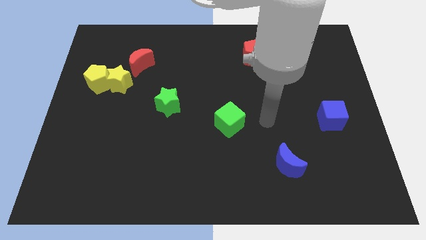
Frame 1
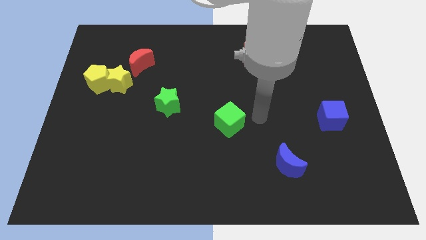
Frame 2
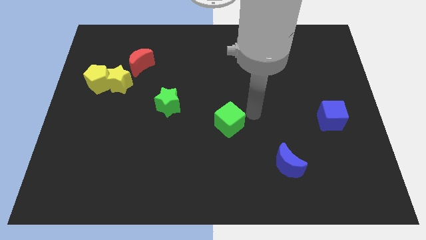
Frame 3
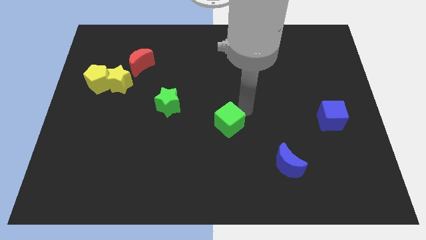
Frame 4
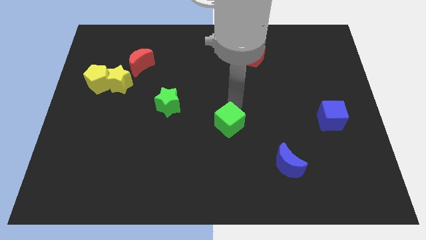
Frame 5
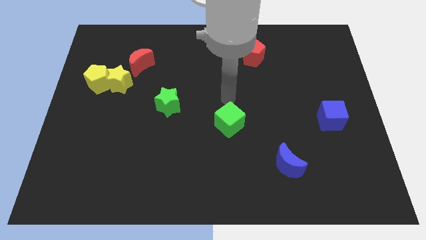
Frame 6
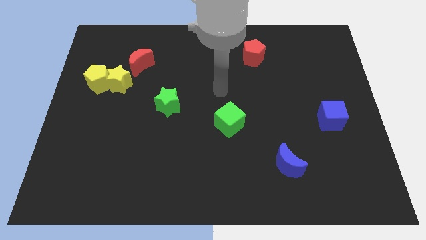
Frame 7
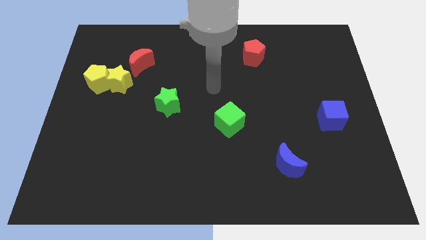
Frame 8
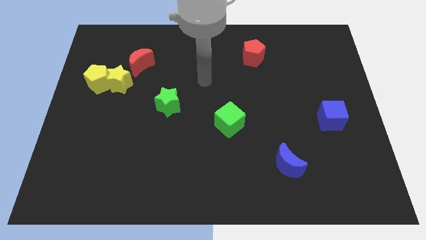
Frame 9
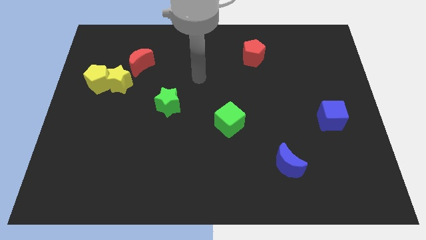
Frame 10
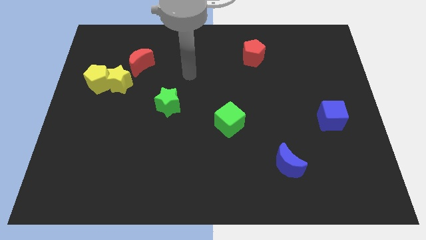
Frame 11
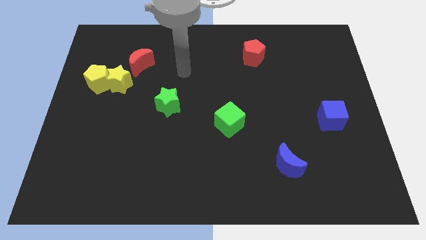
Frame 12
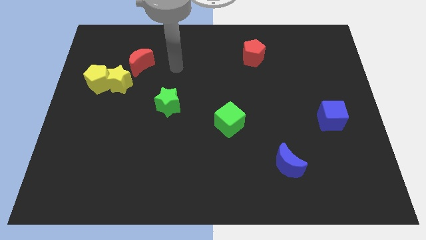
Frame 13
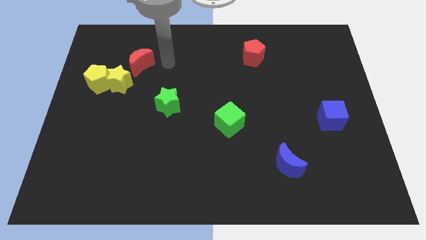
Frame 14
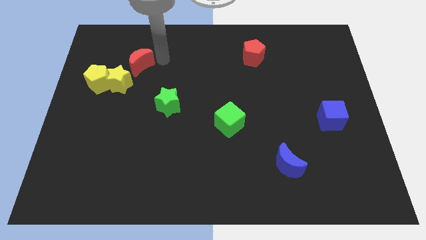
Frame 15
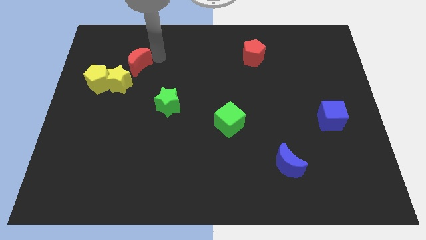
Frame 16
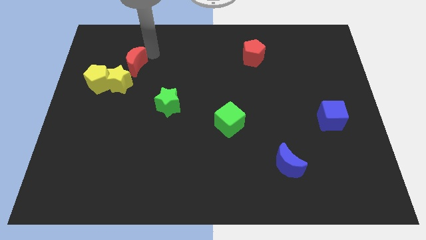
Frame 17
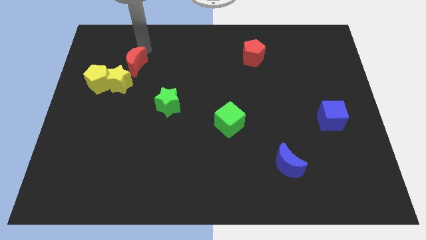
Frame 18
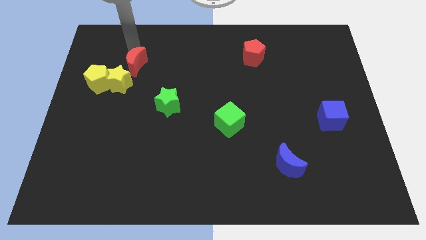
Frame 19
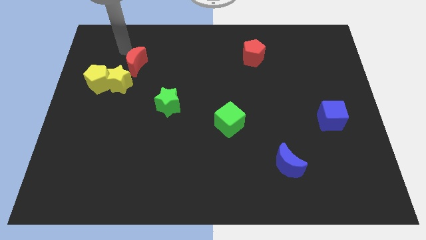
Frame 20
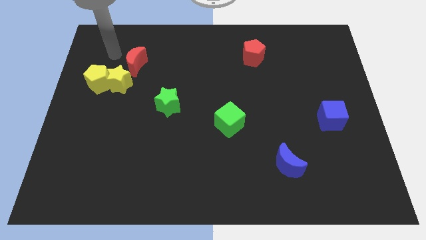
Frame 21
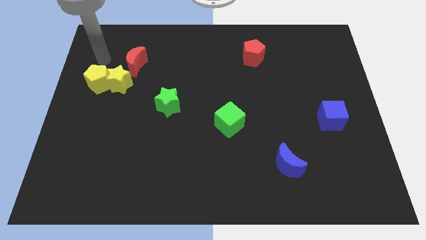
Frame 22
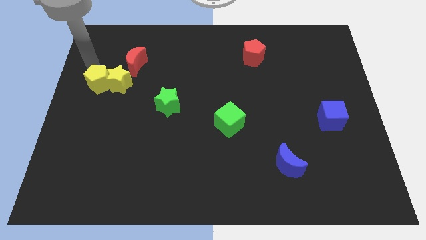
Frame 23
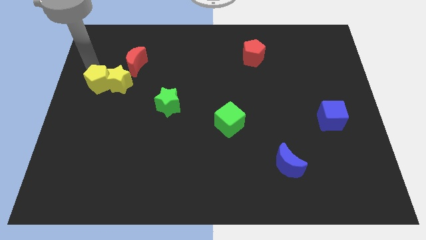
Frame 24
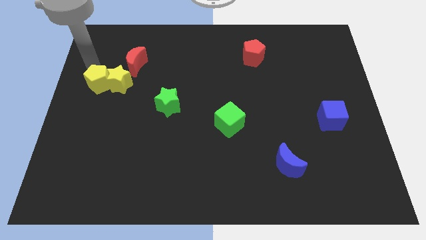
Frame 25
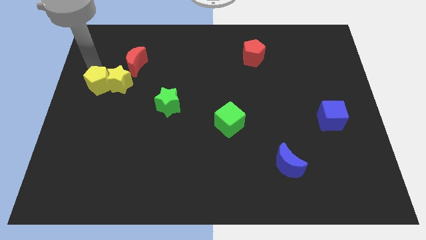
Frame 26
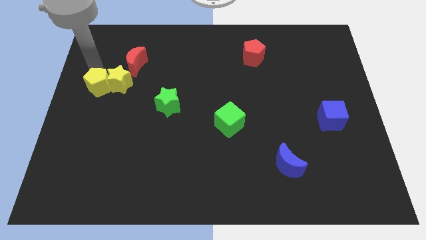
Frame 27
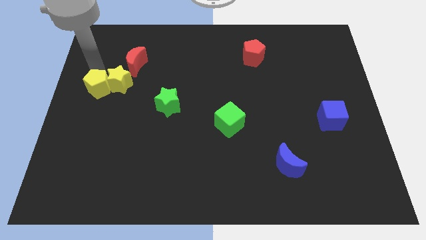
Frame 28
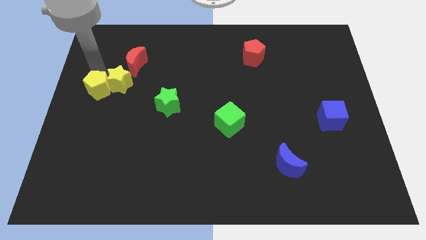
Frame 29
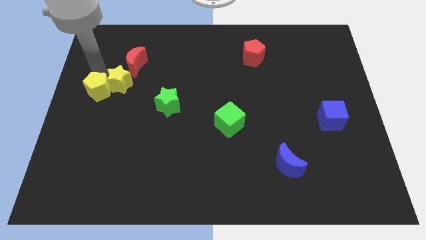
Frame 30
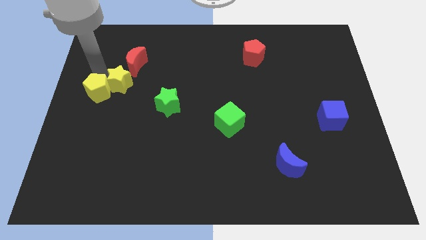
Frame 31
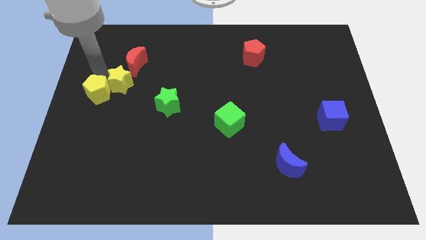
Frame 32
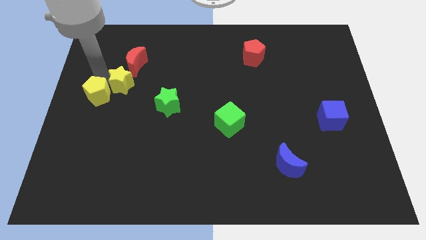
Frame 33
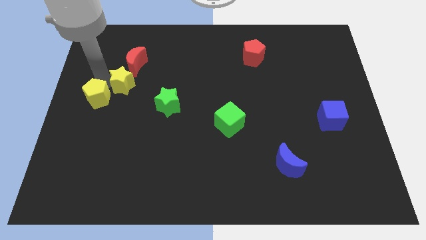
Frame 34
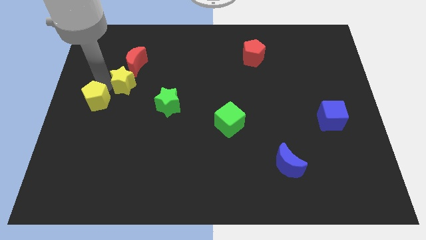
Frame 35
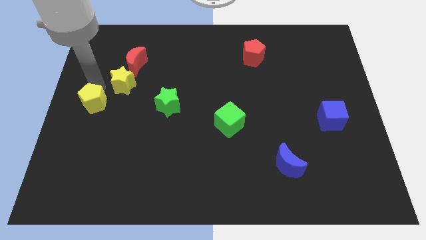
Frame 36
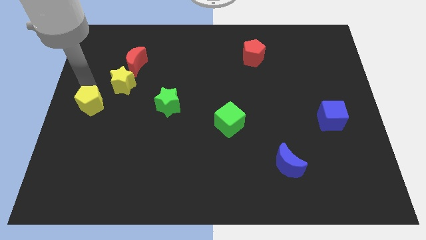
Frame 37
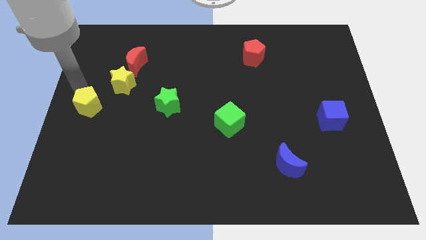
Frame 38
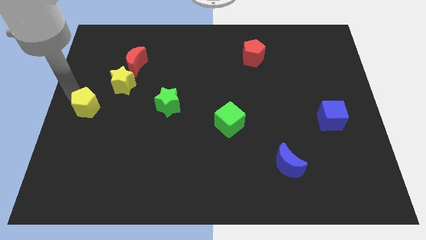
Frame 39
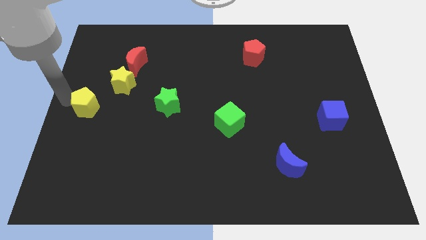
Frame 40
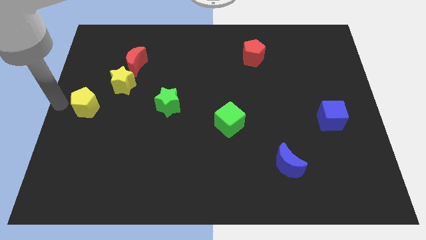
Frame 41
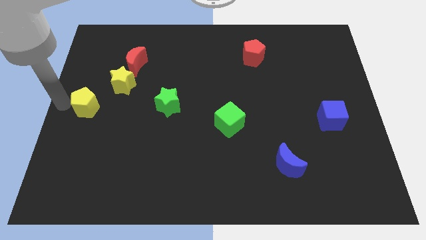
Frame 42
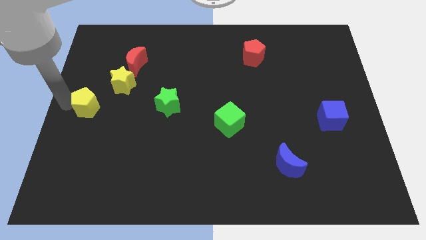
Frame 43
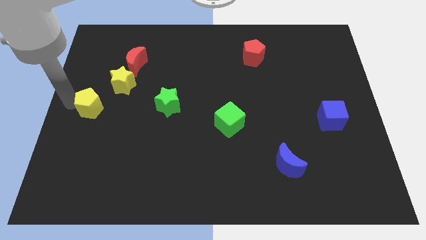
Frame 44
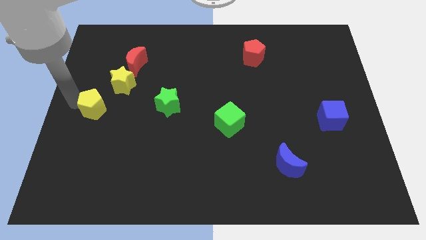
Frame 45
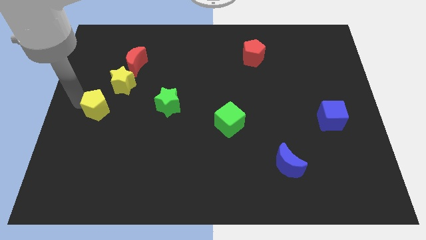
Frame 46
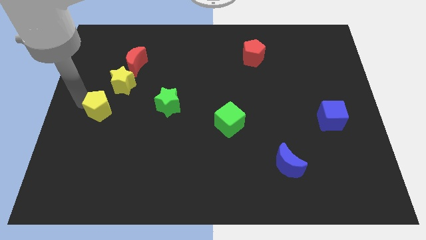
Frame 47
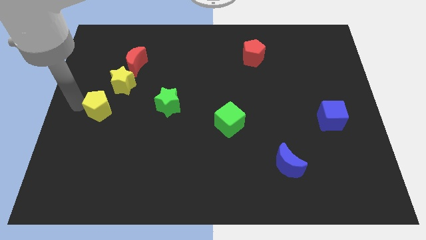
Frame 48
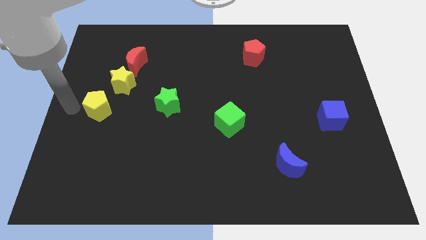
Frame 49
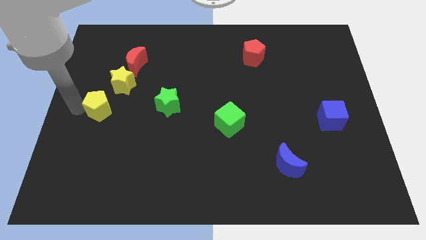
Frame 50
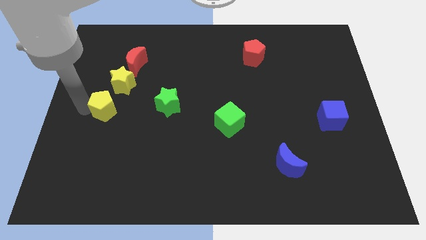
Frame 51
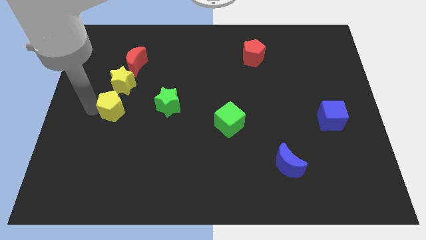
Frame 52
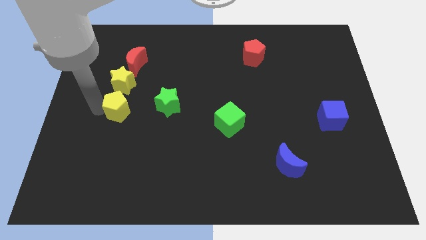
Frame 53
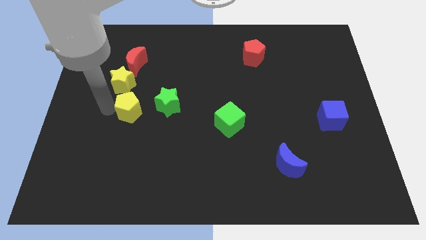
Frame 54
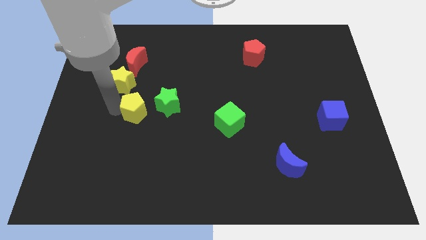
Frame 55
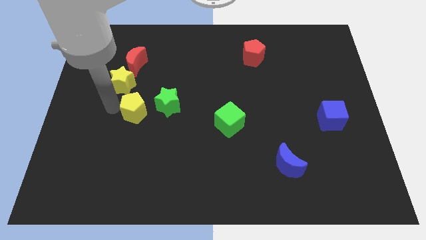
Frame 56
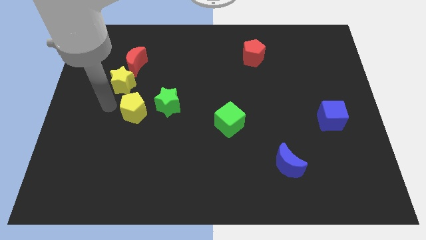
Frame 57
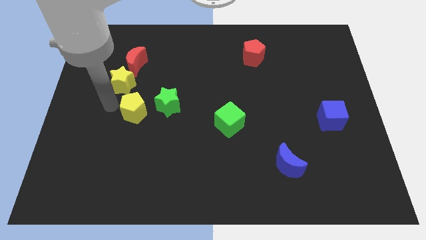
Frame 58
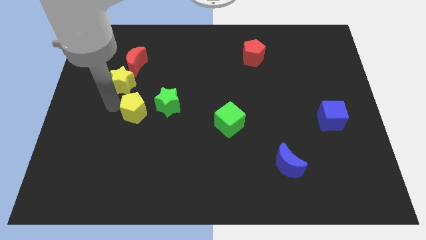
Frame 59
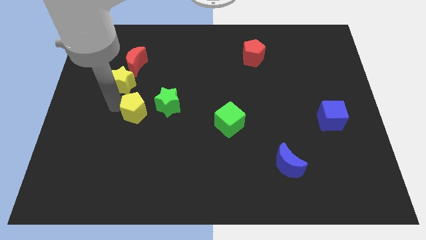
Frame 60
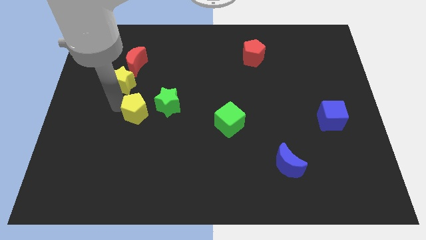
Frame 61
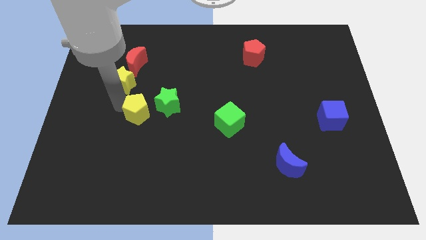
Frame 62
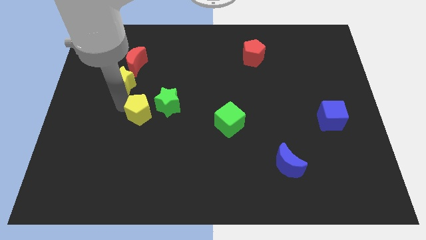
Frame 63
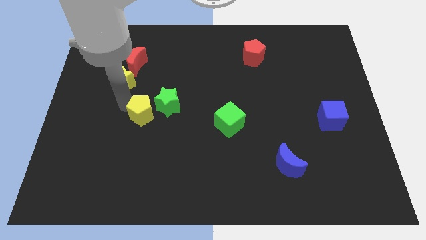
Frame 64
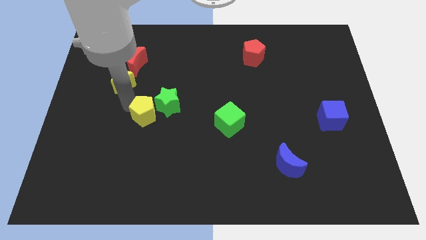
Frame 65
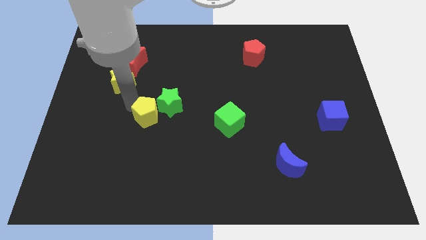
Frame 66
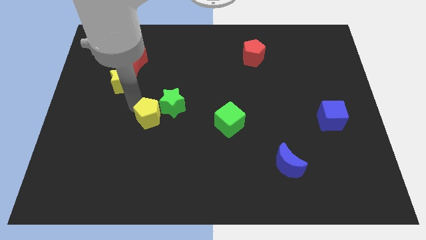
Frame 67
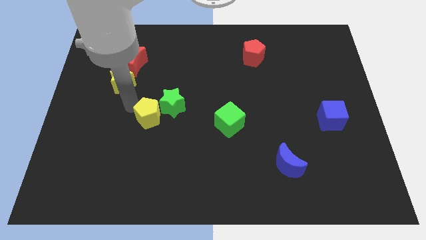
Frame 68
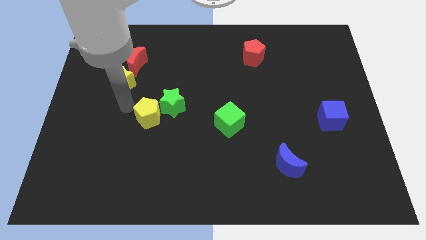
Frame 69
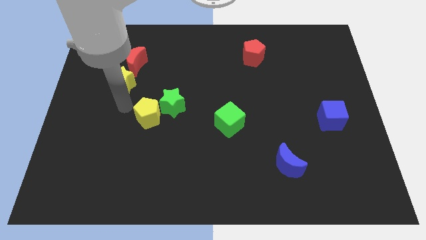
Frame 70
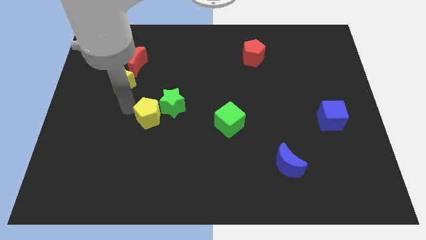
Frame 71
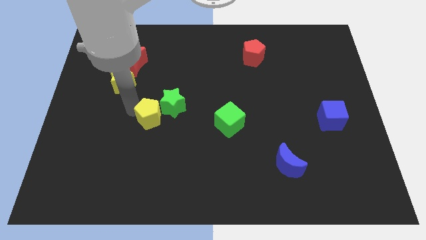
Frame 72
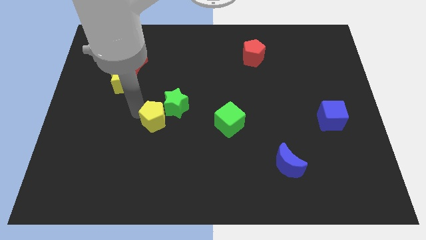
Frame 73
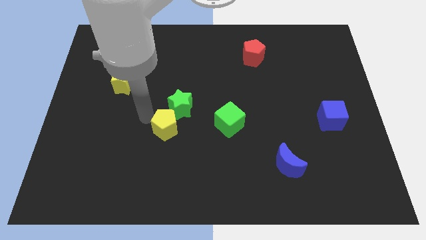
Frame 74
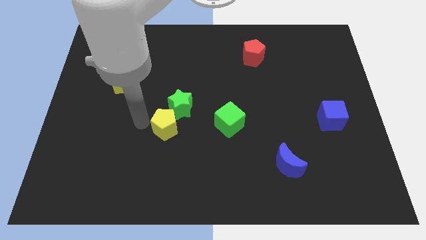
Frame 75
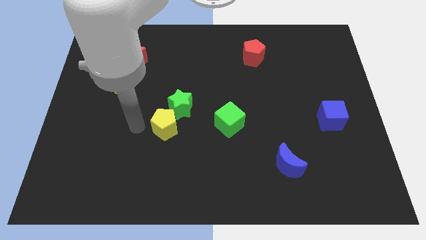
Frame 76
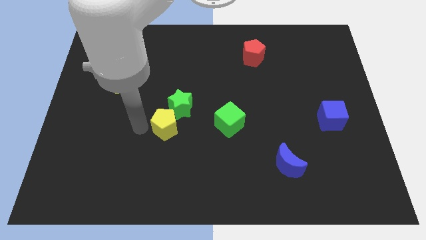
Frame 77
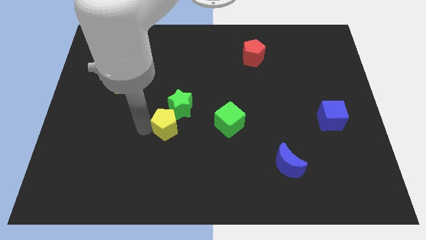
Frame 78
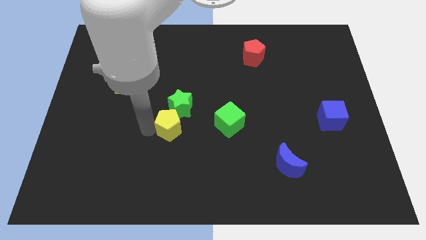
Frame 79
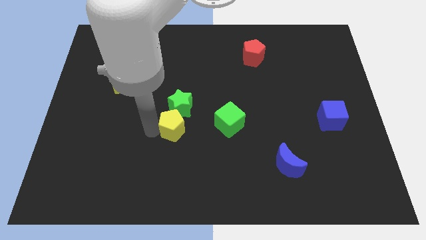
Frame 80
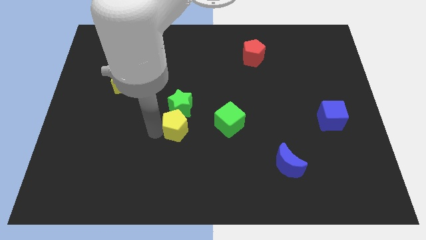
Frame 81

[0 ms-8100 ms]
slide the yellow pentagon to the bottom right of the green star
